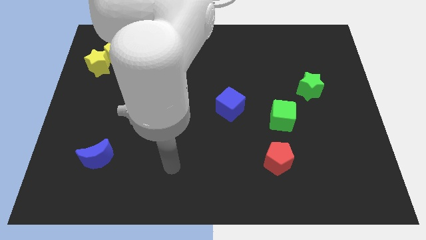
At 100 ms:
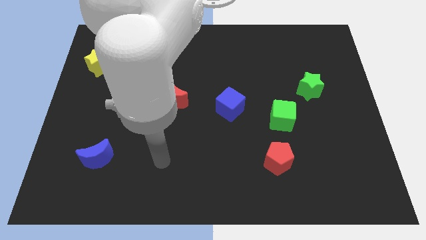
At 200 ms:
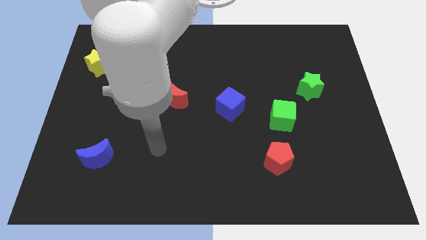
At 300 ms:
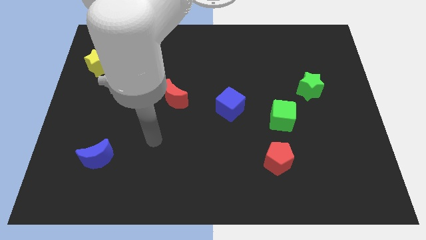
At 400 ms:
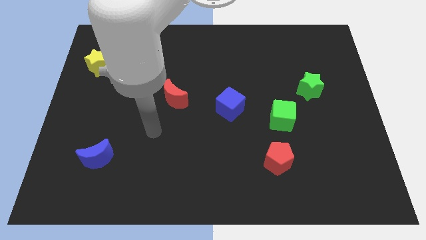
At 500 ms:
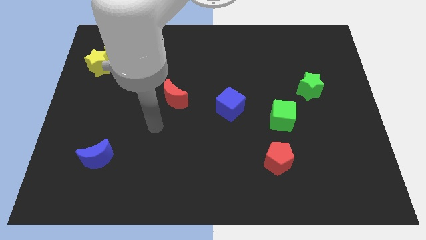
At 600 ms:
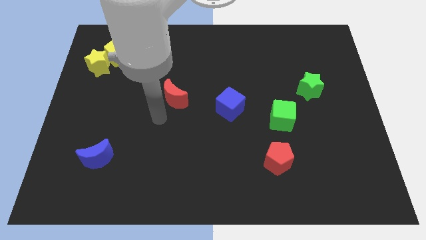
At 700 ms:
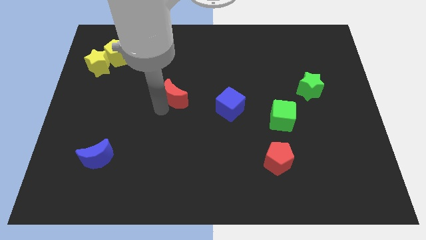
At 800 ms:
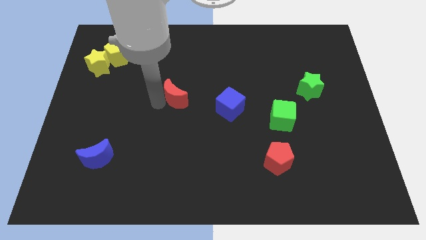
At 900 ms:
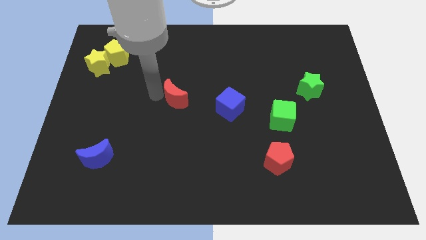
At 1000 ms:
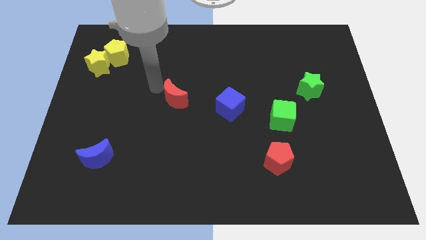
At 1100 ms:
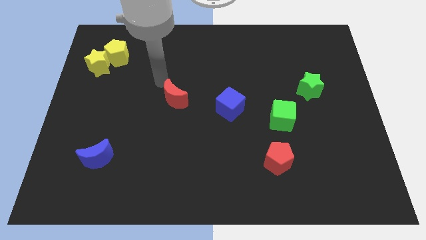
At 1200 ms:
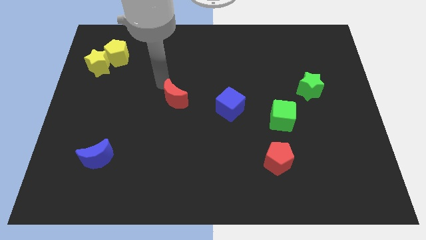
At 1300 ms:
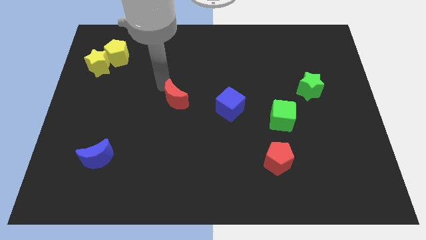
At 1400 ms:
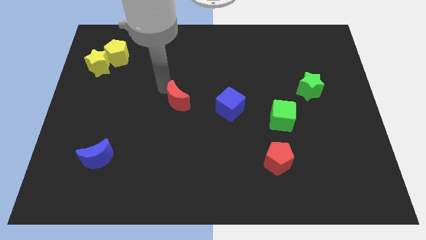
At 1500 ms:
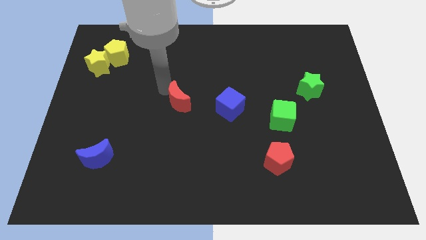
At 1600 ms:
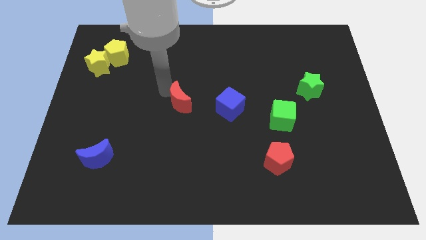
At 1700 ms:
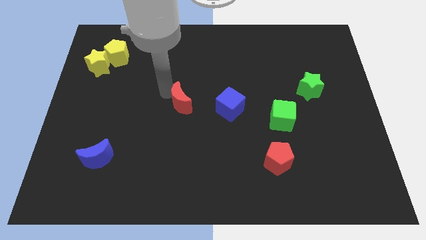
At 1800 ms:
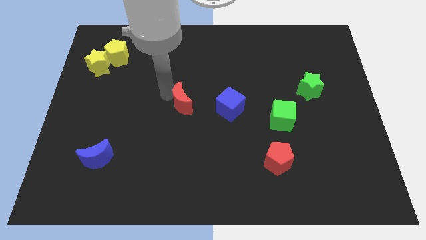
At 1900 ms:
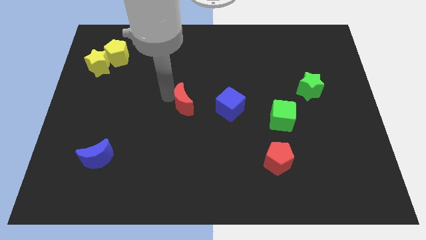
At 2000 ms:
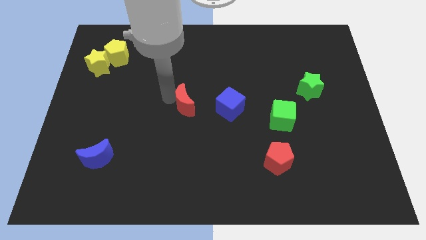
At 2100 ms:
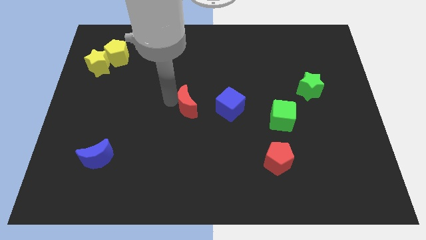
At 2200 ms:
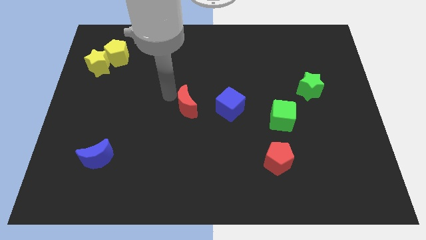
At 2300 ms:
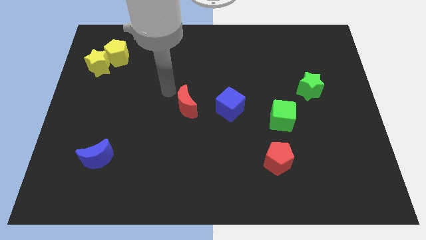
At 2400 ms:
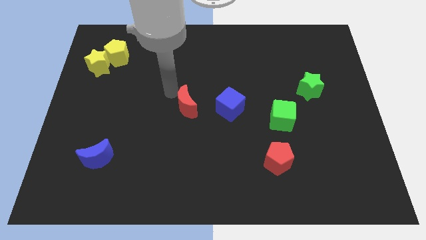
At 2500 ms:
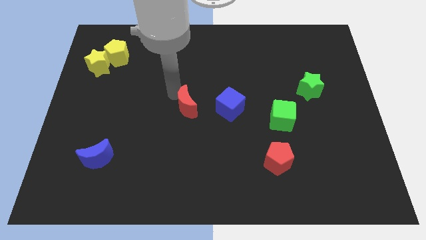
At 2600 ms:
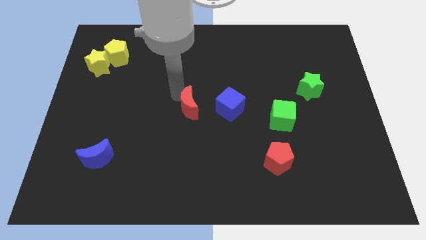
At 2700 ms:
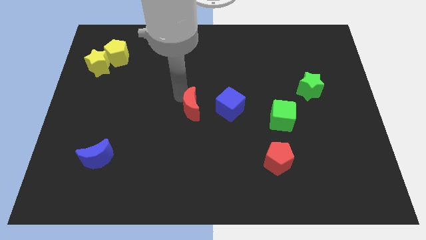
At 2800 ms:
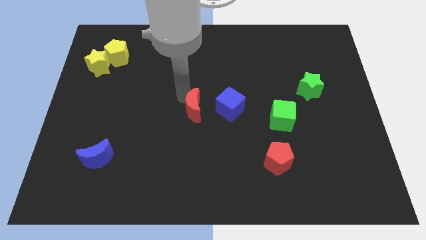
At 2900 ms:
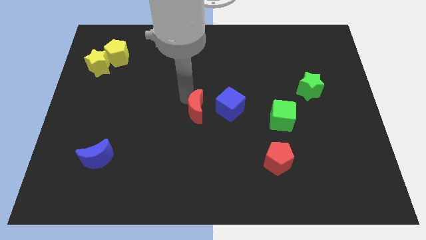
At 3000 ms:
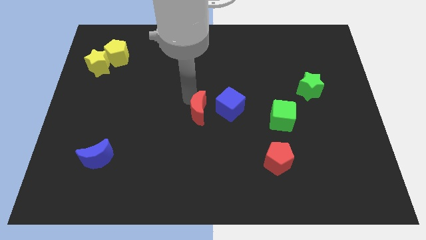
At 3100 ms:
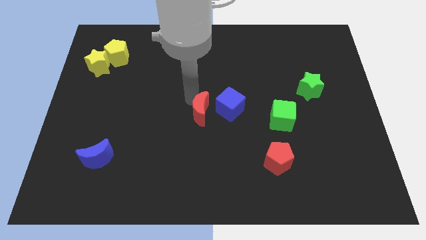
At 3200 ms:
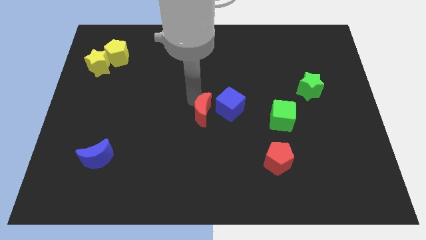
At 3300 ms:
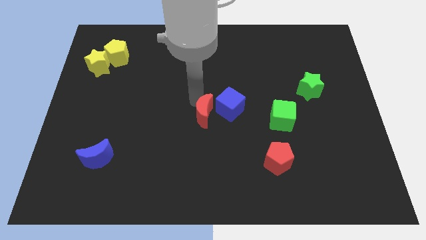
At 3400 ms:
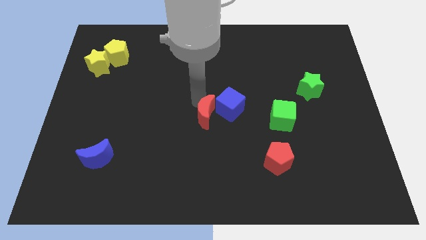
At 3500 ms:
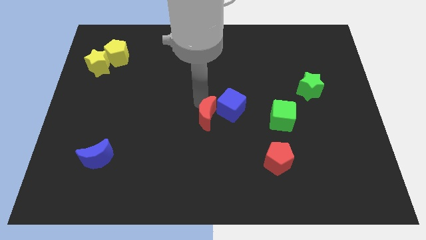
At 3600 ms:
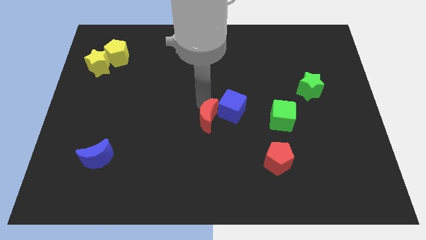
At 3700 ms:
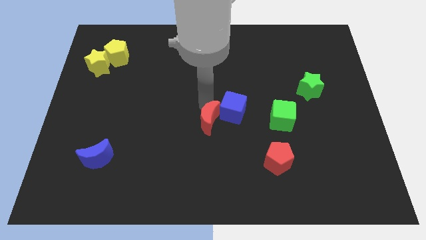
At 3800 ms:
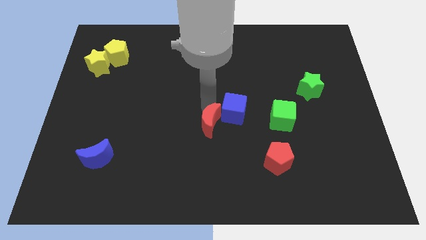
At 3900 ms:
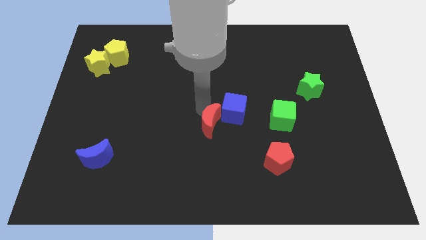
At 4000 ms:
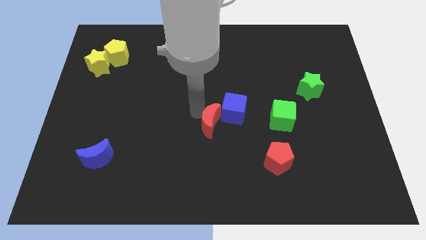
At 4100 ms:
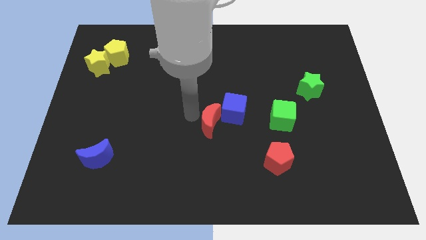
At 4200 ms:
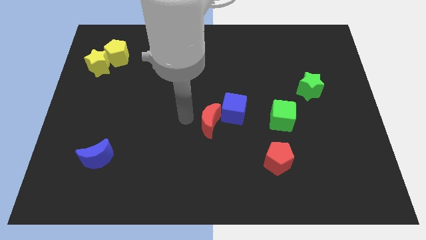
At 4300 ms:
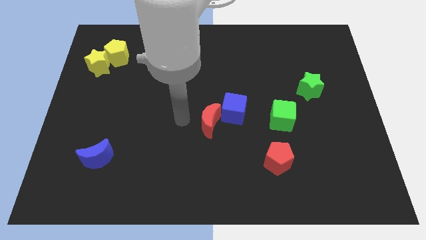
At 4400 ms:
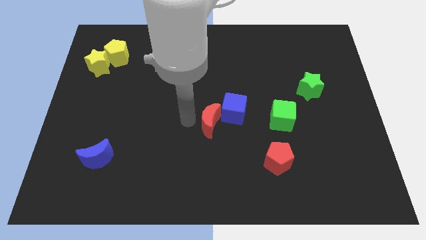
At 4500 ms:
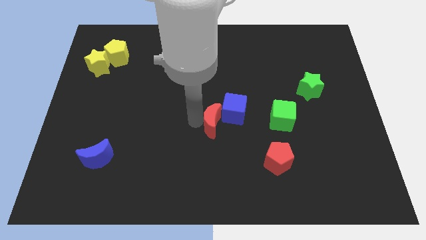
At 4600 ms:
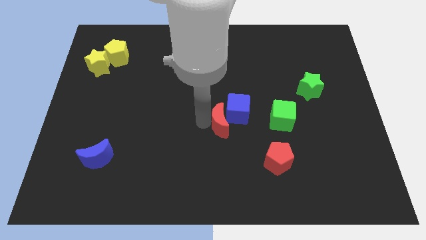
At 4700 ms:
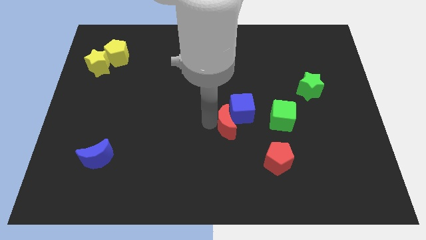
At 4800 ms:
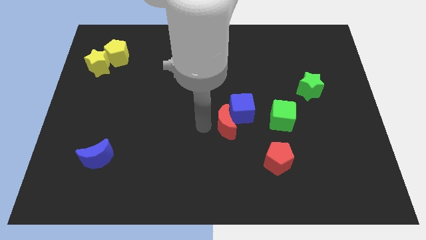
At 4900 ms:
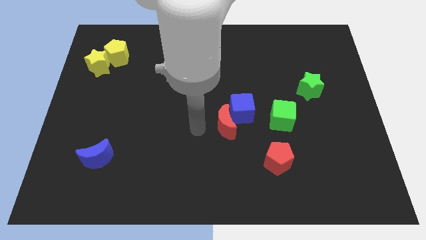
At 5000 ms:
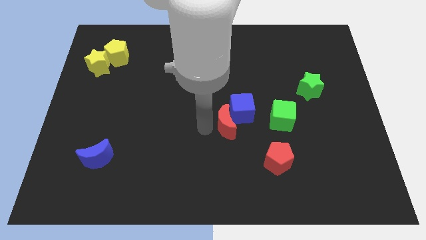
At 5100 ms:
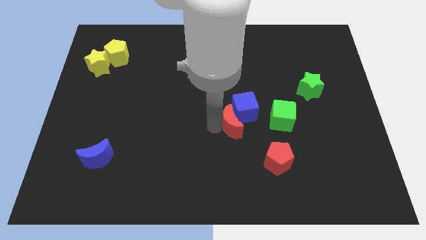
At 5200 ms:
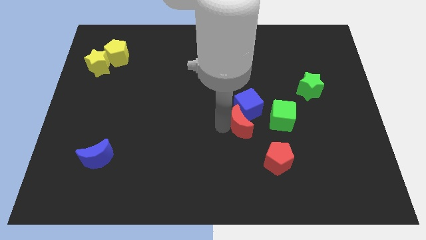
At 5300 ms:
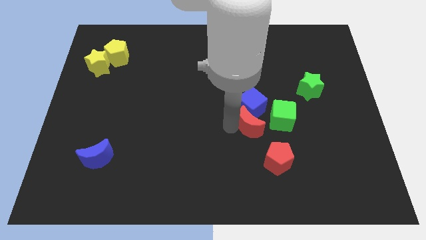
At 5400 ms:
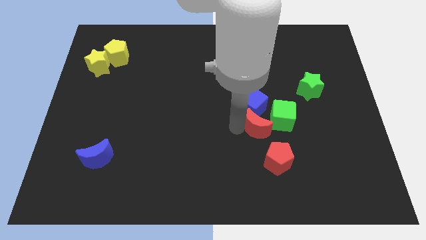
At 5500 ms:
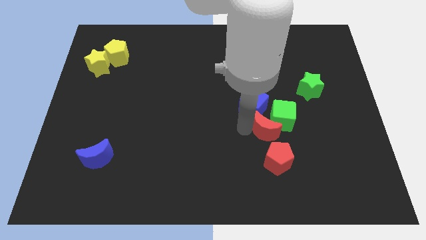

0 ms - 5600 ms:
move the red moon next to the green cube

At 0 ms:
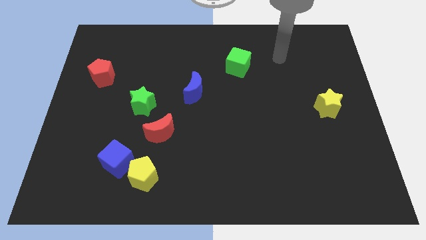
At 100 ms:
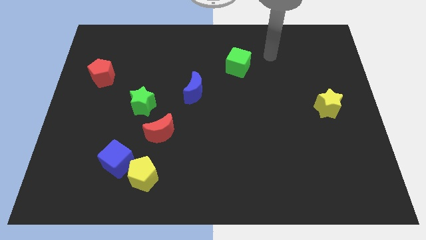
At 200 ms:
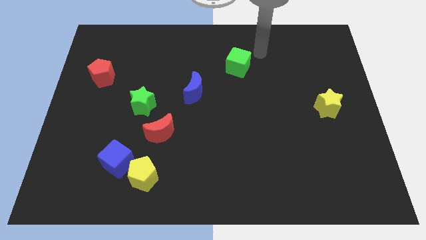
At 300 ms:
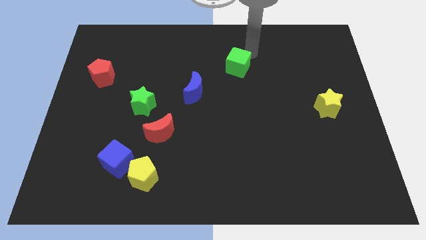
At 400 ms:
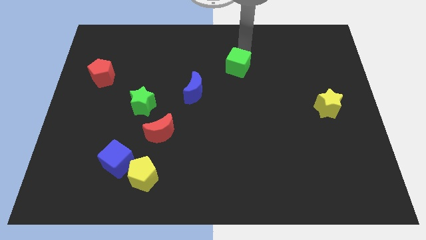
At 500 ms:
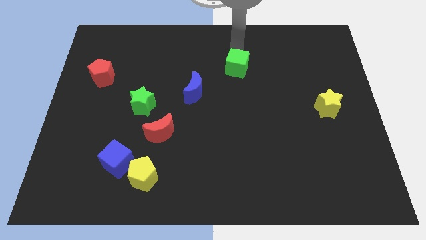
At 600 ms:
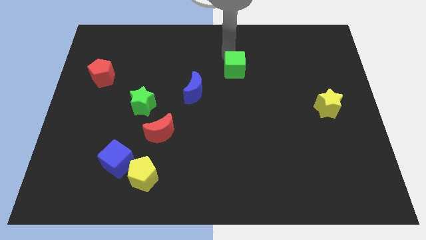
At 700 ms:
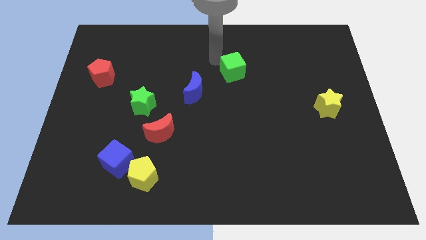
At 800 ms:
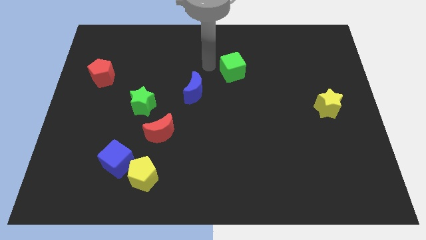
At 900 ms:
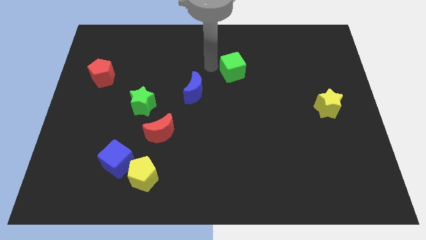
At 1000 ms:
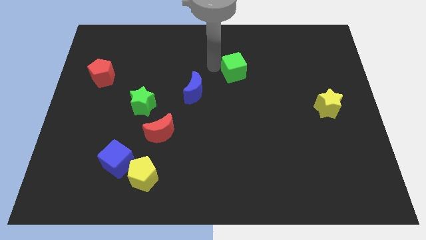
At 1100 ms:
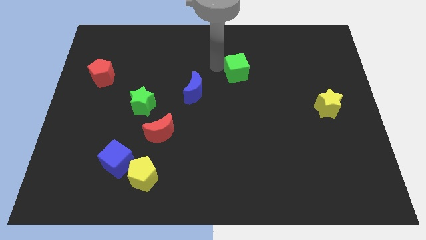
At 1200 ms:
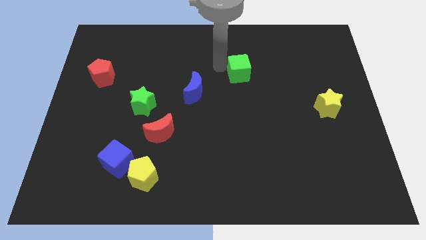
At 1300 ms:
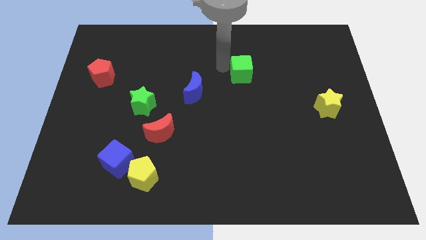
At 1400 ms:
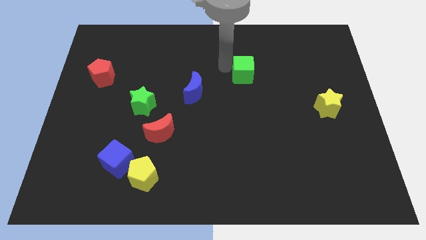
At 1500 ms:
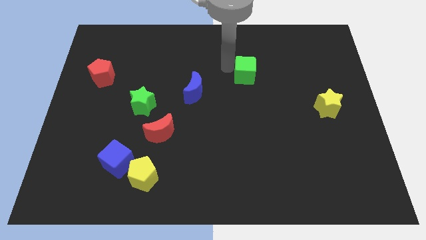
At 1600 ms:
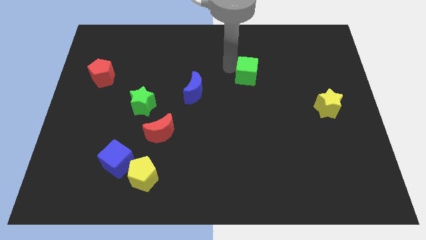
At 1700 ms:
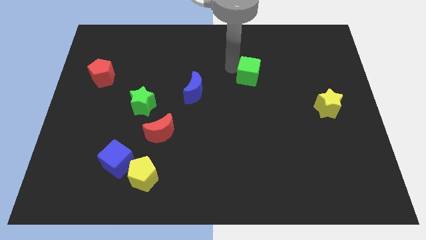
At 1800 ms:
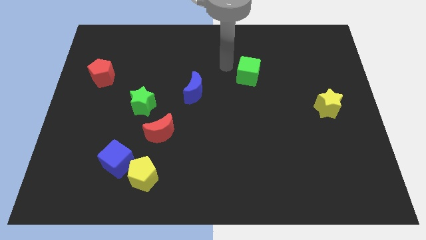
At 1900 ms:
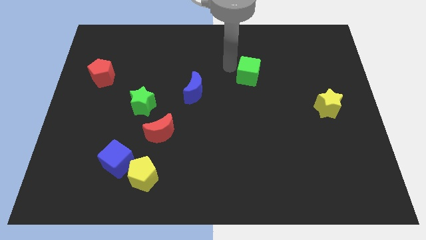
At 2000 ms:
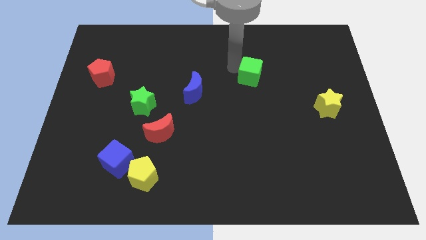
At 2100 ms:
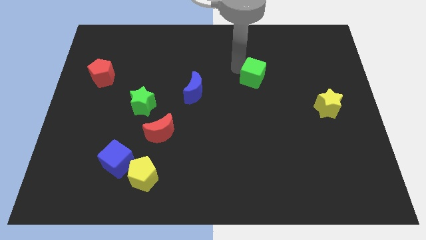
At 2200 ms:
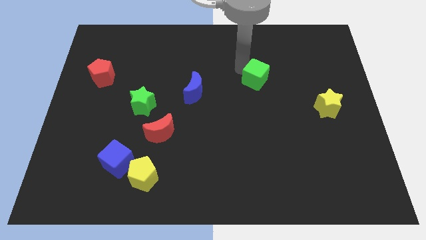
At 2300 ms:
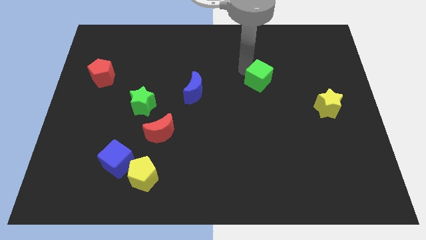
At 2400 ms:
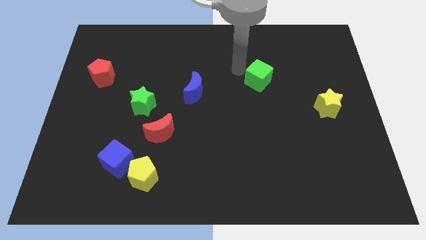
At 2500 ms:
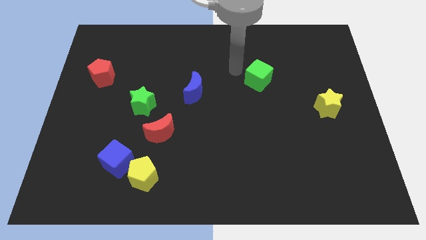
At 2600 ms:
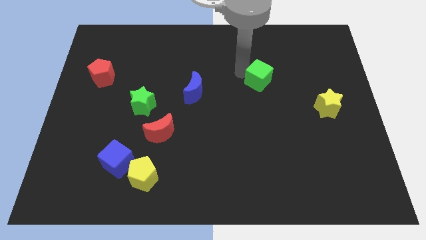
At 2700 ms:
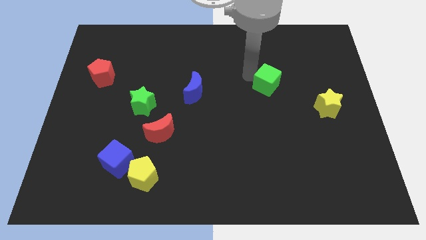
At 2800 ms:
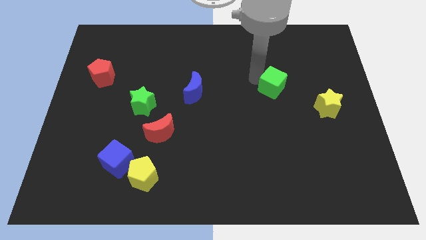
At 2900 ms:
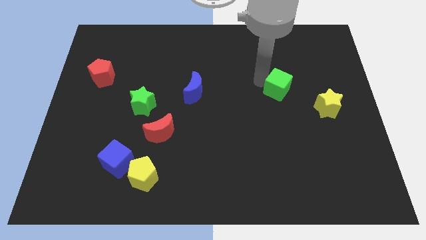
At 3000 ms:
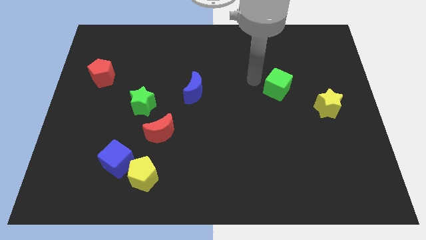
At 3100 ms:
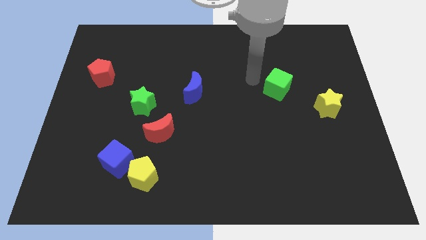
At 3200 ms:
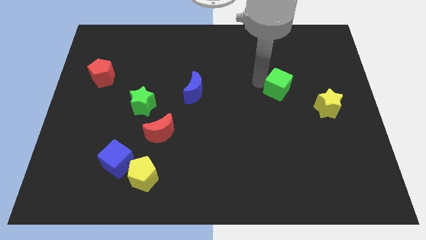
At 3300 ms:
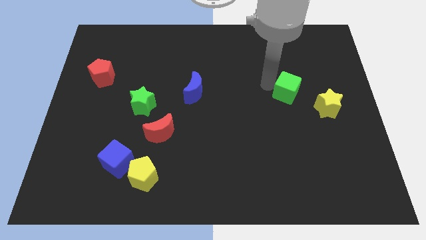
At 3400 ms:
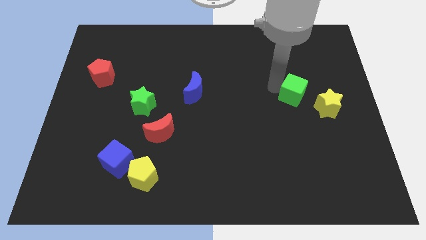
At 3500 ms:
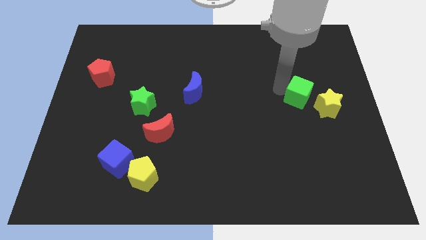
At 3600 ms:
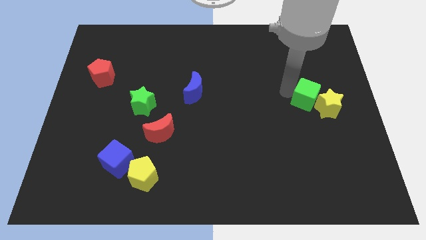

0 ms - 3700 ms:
move the green cube next to the yellow star
